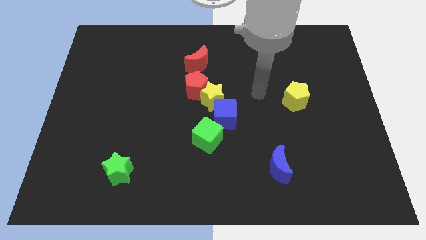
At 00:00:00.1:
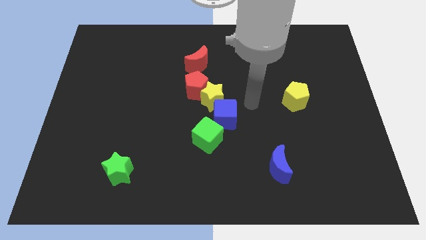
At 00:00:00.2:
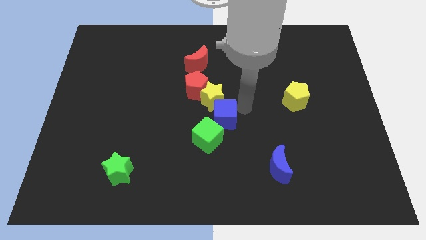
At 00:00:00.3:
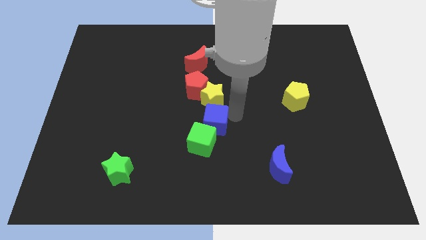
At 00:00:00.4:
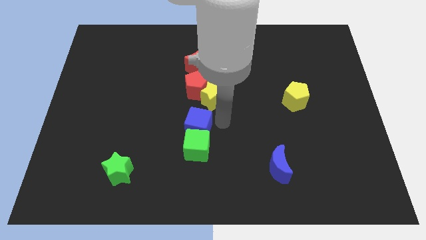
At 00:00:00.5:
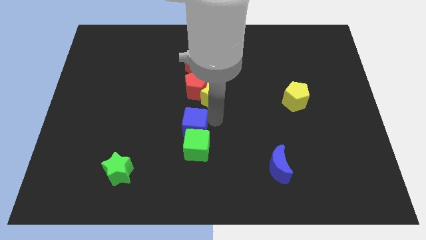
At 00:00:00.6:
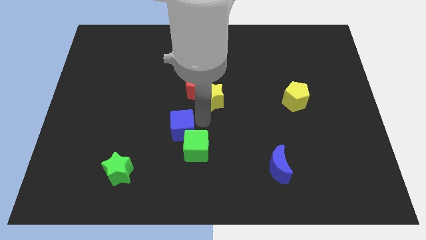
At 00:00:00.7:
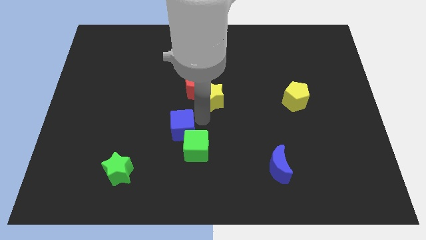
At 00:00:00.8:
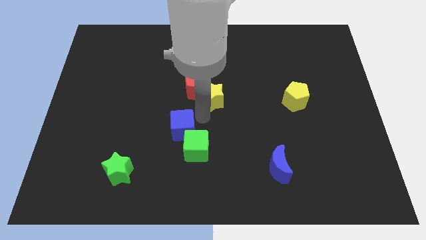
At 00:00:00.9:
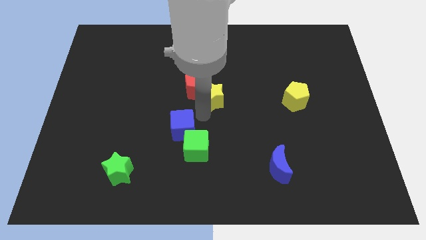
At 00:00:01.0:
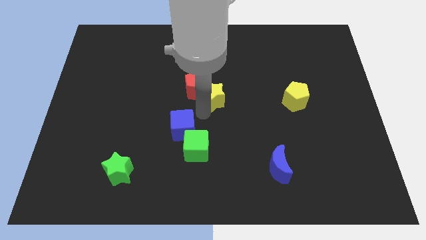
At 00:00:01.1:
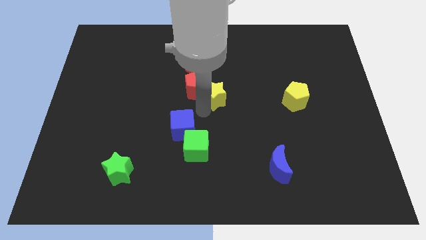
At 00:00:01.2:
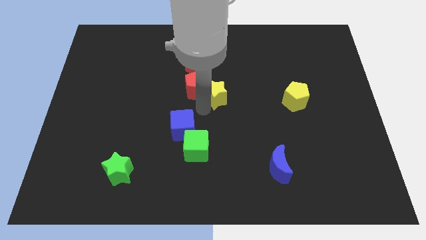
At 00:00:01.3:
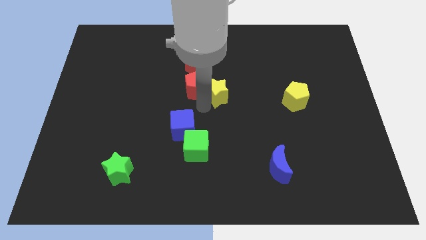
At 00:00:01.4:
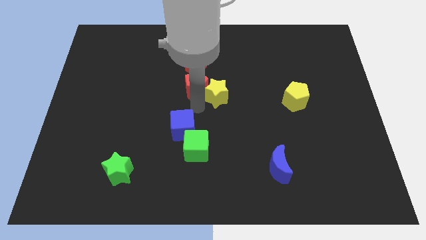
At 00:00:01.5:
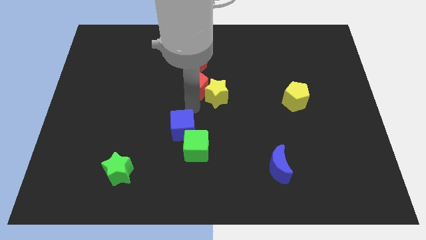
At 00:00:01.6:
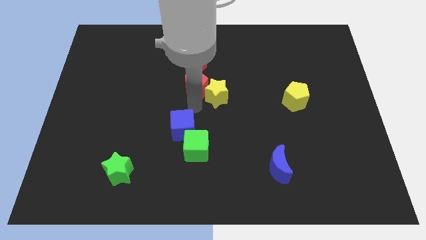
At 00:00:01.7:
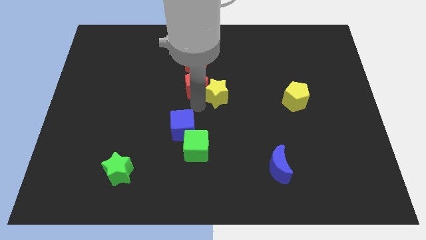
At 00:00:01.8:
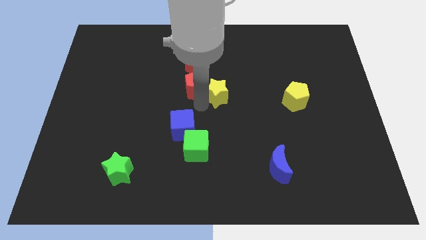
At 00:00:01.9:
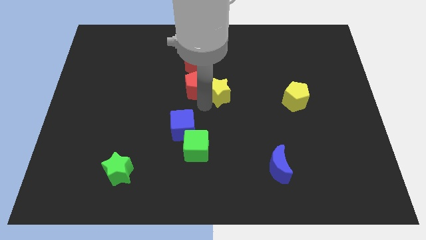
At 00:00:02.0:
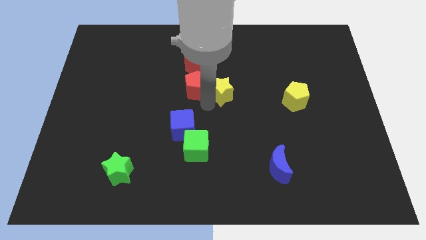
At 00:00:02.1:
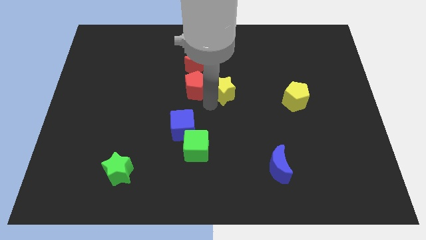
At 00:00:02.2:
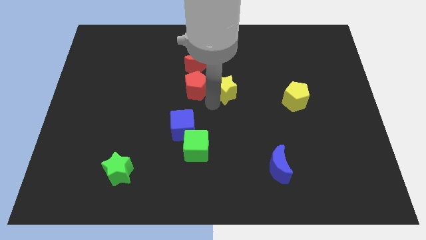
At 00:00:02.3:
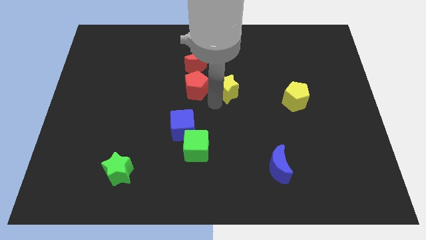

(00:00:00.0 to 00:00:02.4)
pull the yellow star apart from the red pentagon and blue cube

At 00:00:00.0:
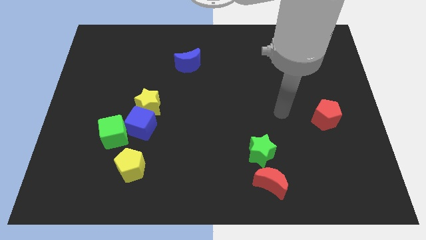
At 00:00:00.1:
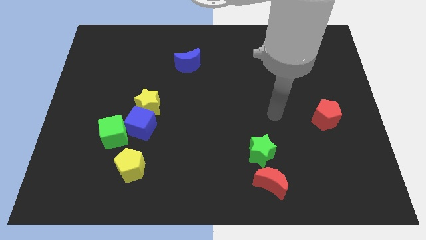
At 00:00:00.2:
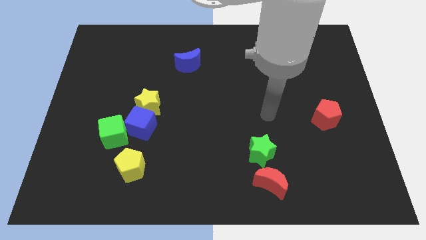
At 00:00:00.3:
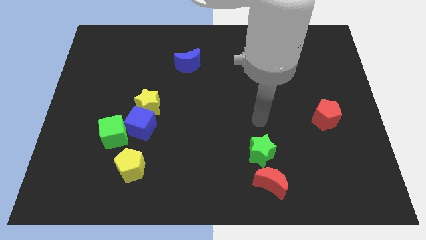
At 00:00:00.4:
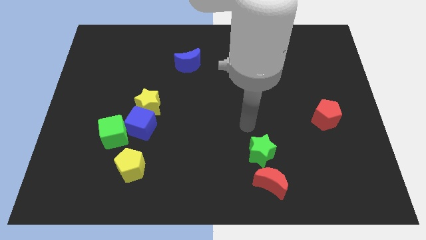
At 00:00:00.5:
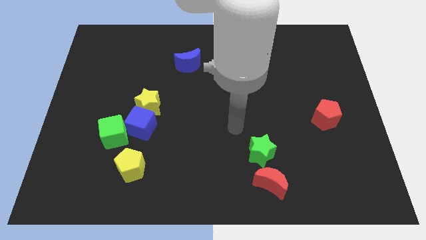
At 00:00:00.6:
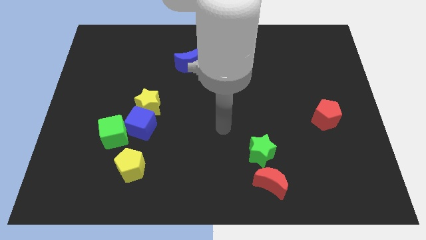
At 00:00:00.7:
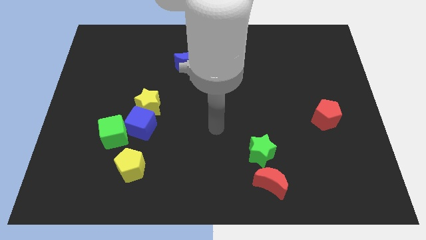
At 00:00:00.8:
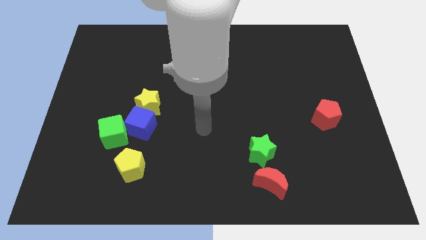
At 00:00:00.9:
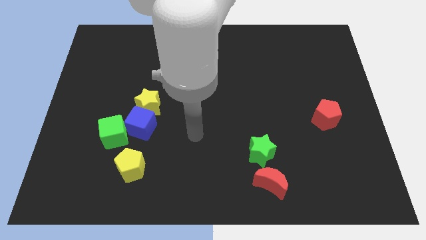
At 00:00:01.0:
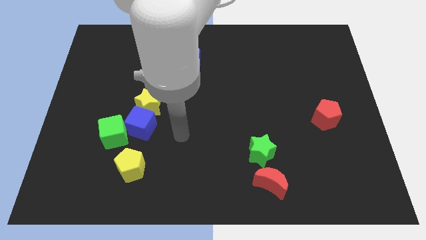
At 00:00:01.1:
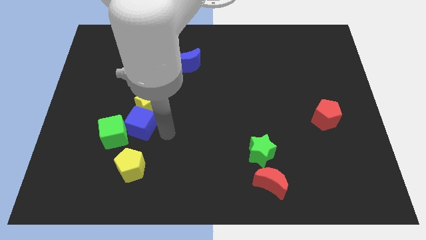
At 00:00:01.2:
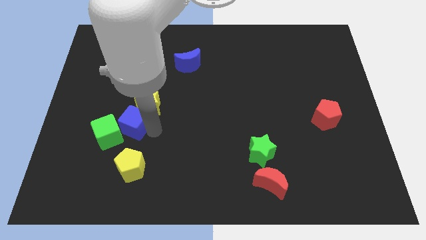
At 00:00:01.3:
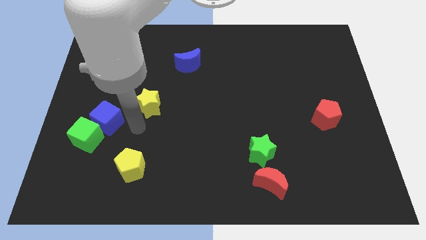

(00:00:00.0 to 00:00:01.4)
separate the yellow star from the blue cube

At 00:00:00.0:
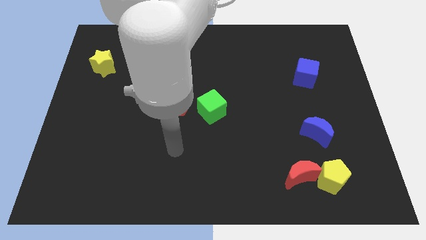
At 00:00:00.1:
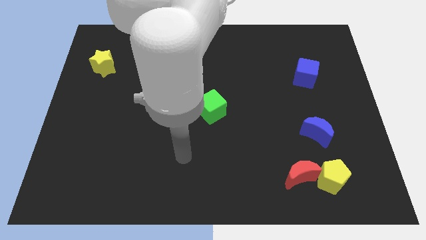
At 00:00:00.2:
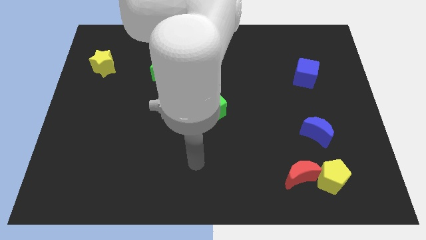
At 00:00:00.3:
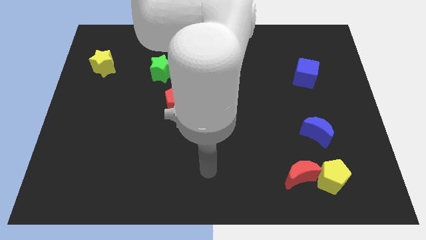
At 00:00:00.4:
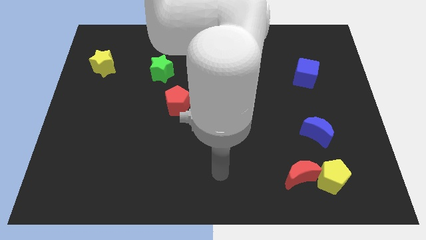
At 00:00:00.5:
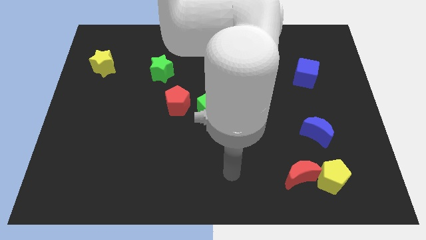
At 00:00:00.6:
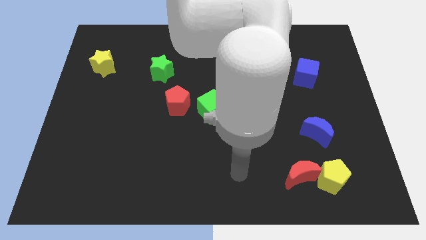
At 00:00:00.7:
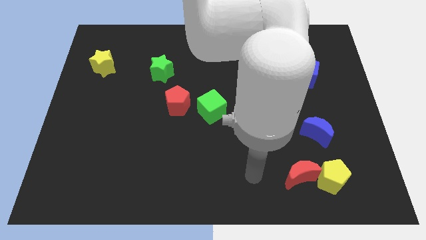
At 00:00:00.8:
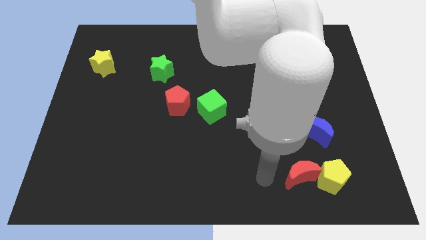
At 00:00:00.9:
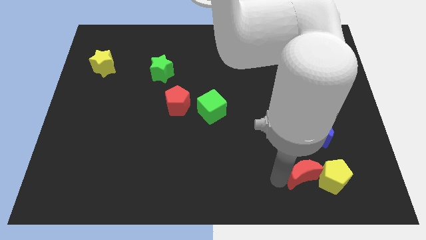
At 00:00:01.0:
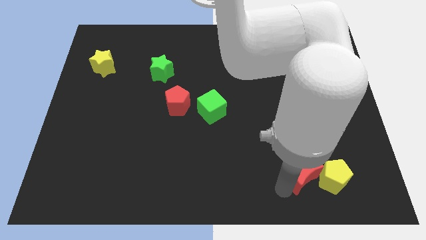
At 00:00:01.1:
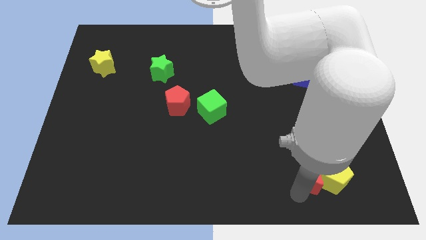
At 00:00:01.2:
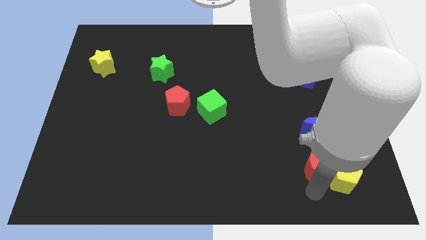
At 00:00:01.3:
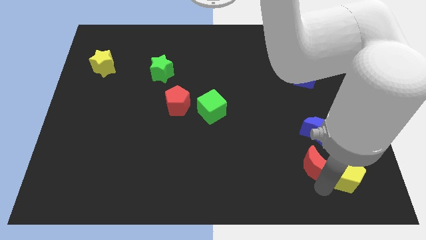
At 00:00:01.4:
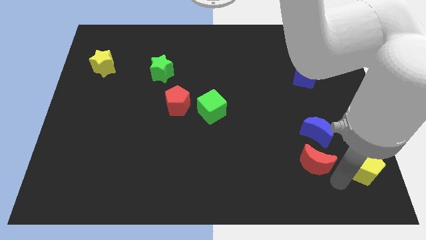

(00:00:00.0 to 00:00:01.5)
move the red moon away from the yellow pentagon

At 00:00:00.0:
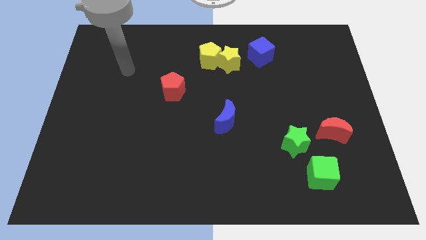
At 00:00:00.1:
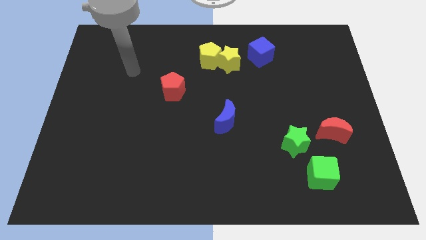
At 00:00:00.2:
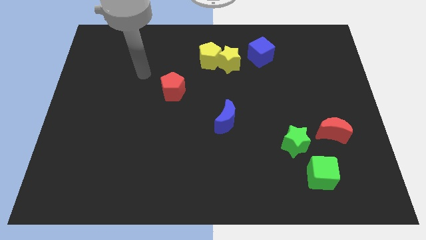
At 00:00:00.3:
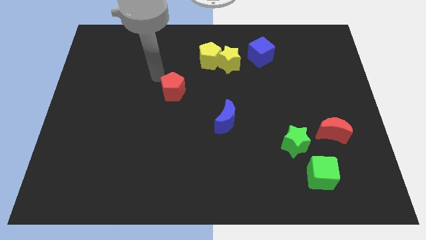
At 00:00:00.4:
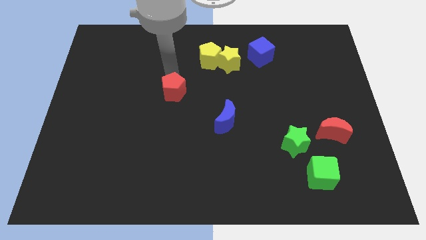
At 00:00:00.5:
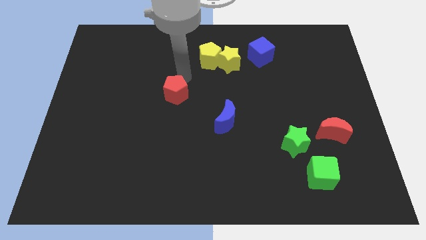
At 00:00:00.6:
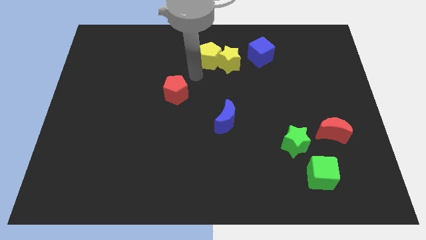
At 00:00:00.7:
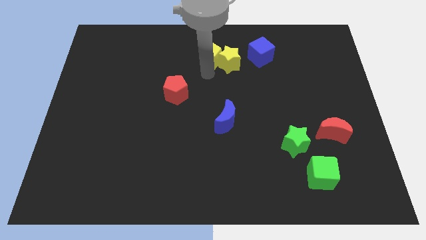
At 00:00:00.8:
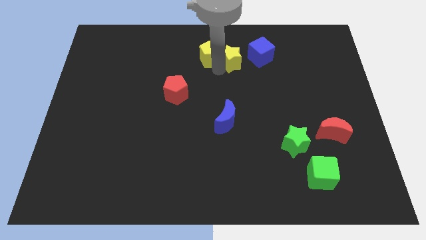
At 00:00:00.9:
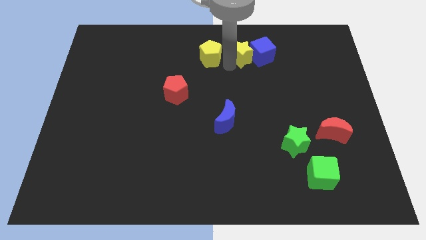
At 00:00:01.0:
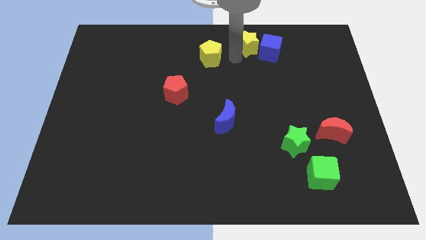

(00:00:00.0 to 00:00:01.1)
pull the yellow pentagon apart from the yellow star

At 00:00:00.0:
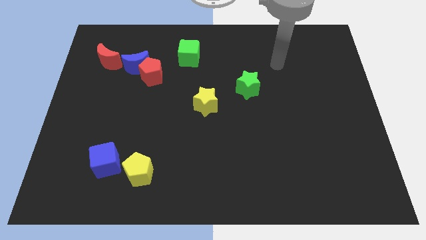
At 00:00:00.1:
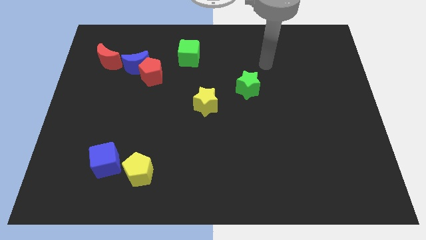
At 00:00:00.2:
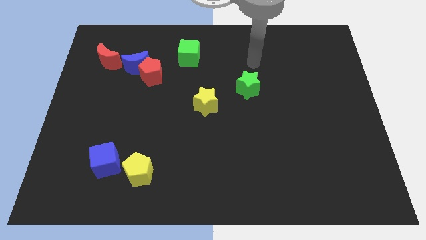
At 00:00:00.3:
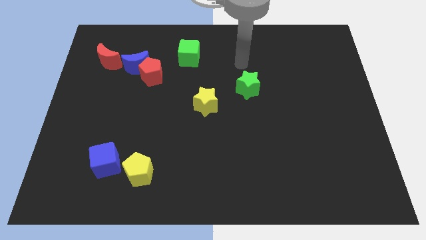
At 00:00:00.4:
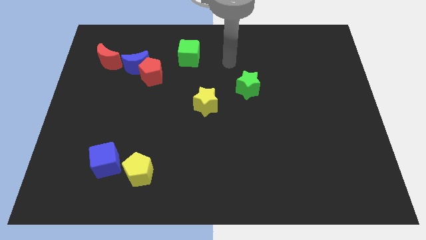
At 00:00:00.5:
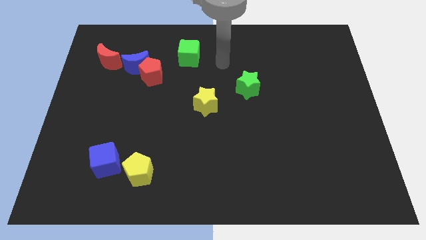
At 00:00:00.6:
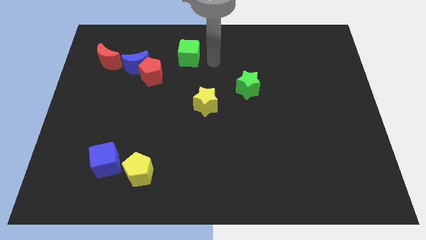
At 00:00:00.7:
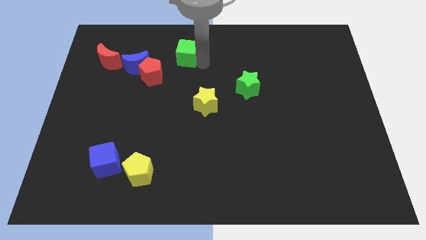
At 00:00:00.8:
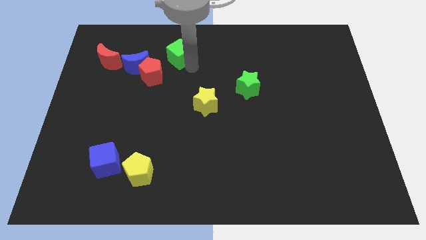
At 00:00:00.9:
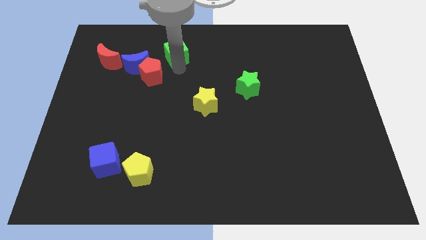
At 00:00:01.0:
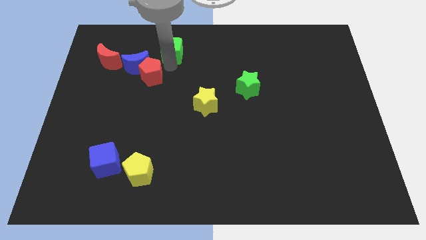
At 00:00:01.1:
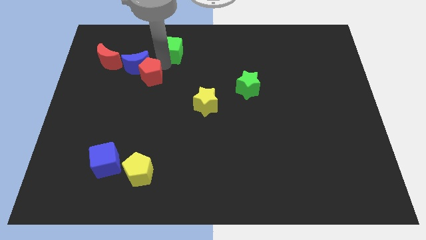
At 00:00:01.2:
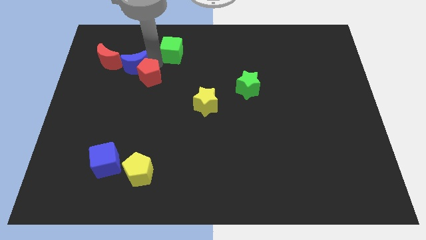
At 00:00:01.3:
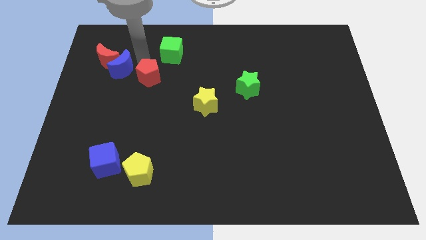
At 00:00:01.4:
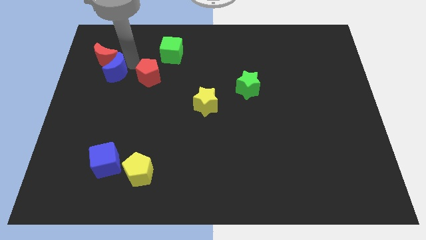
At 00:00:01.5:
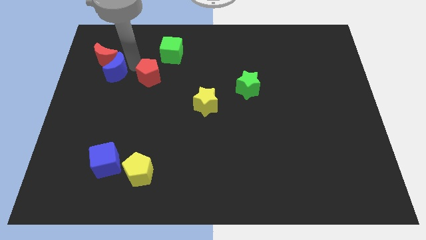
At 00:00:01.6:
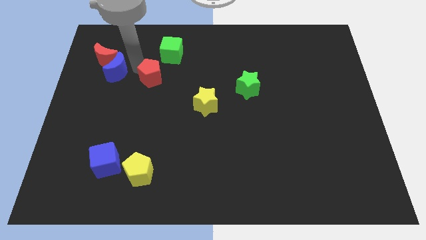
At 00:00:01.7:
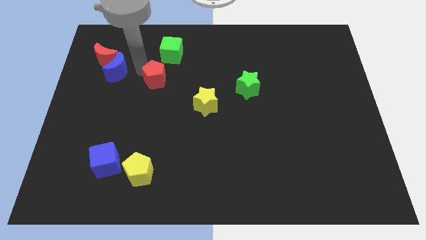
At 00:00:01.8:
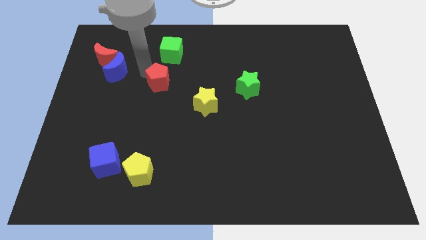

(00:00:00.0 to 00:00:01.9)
pull the red pentagon apart from the blue moon

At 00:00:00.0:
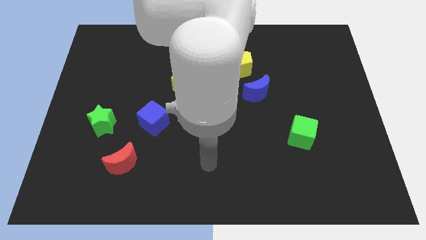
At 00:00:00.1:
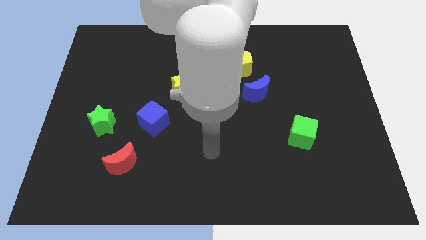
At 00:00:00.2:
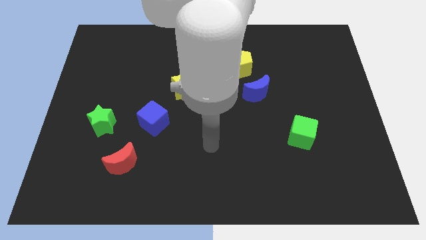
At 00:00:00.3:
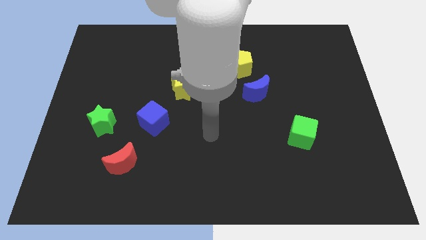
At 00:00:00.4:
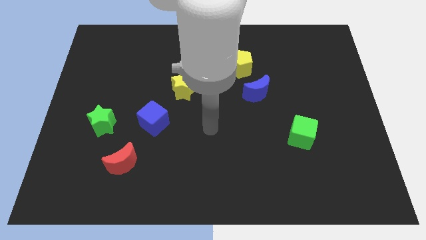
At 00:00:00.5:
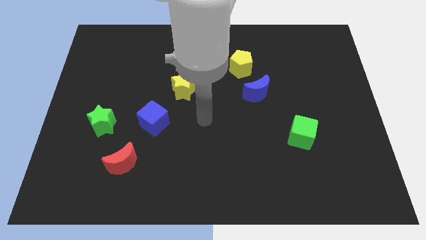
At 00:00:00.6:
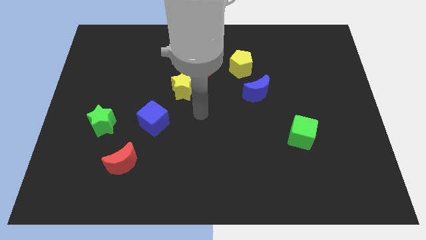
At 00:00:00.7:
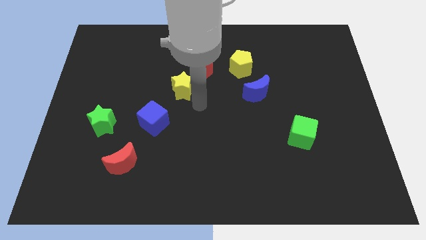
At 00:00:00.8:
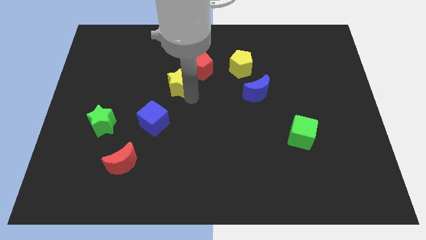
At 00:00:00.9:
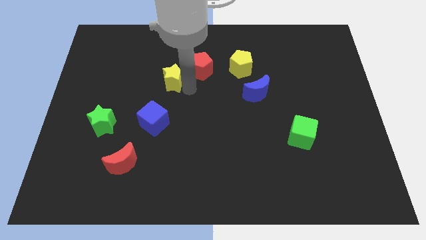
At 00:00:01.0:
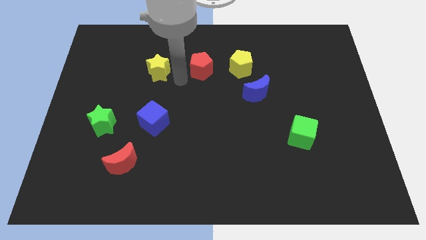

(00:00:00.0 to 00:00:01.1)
move the red pentagon away from the yellow star
